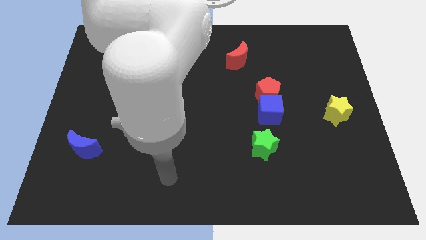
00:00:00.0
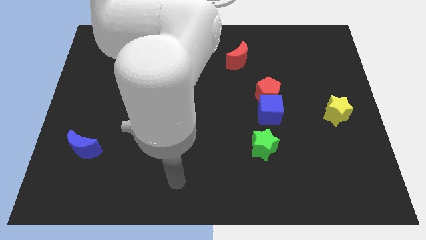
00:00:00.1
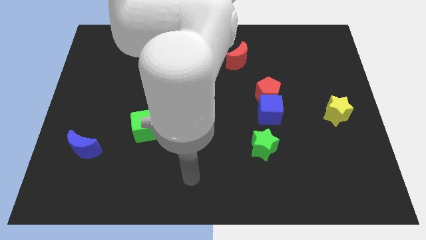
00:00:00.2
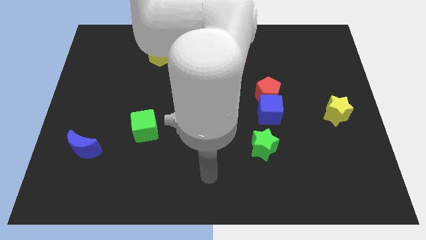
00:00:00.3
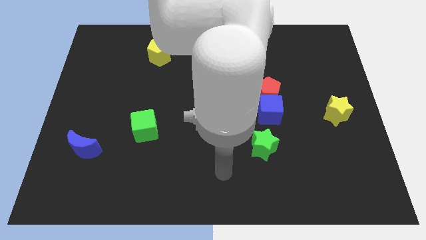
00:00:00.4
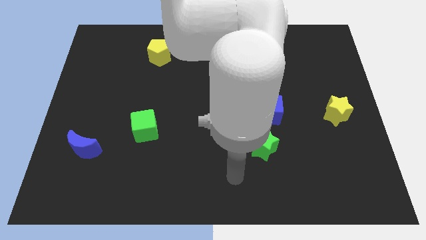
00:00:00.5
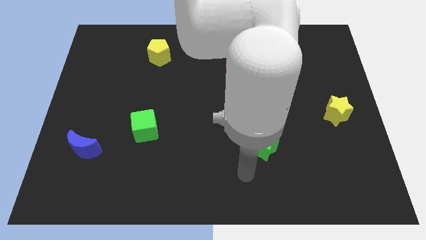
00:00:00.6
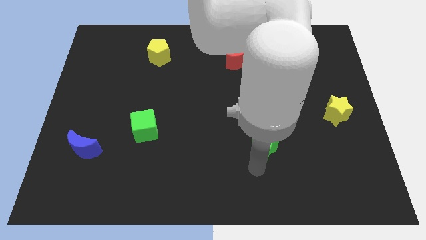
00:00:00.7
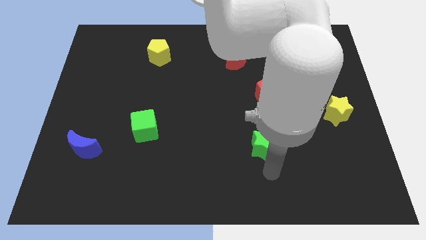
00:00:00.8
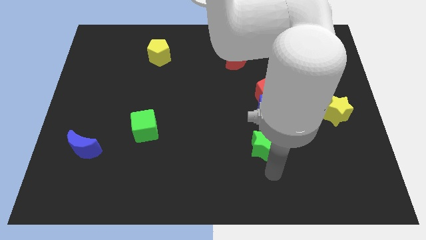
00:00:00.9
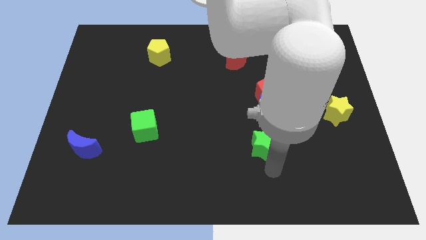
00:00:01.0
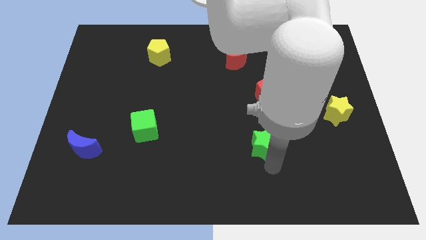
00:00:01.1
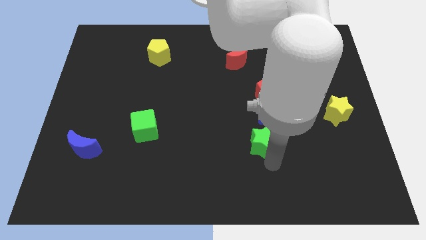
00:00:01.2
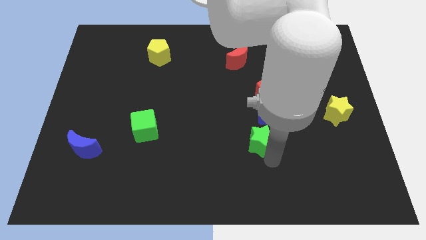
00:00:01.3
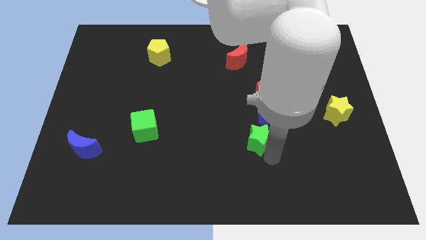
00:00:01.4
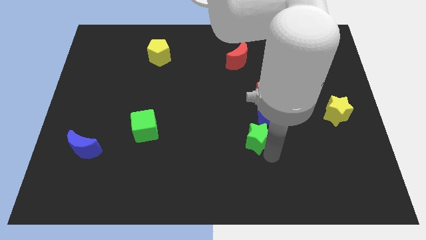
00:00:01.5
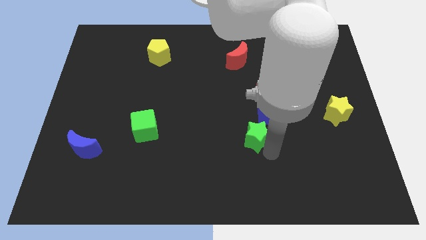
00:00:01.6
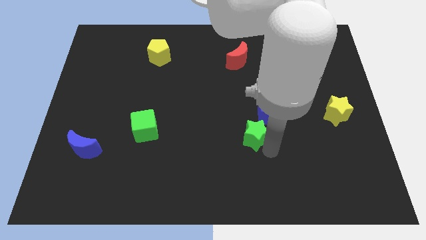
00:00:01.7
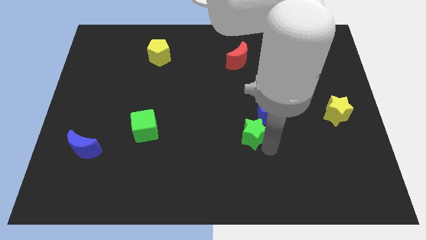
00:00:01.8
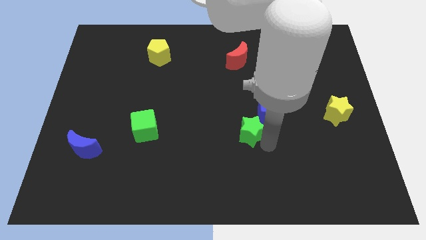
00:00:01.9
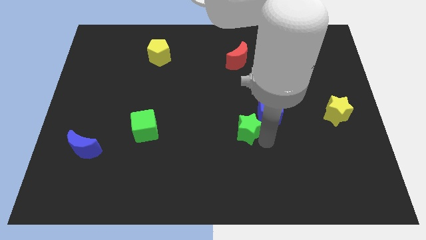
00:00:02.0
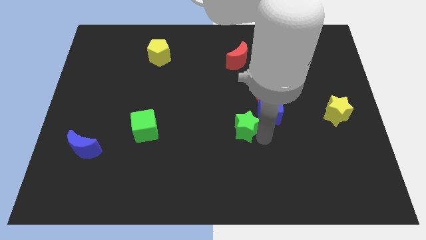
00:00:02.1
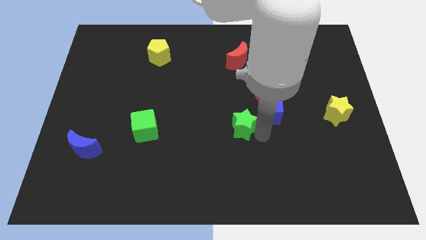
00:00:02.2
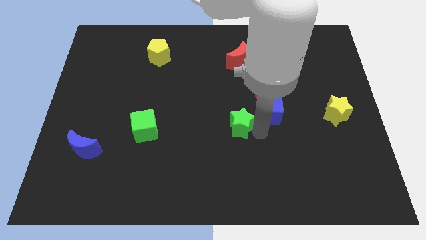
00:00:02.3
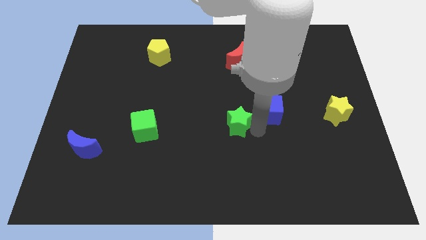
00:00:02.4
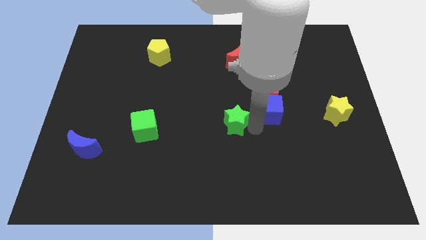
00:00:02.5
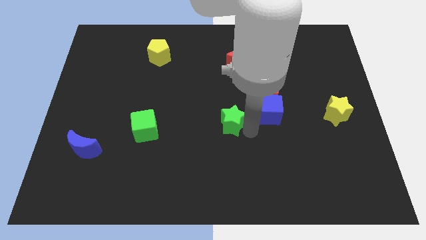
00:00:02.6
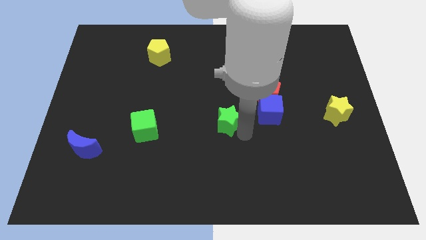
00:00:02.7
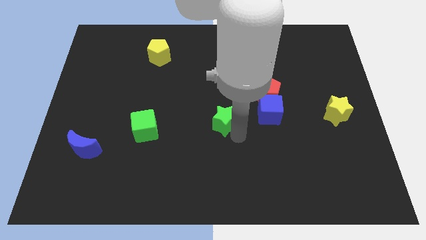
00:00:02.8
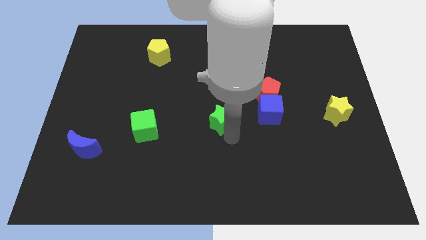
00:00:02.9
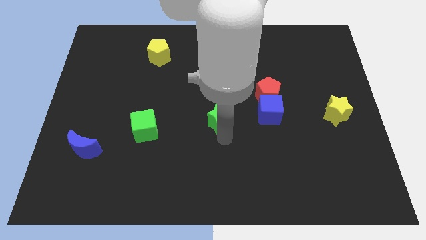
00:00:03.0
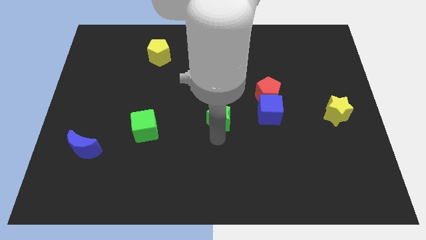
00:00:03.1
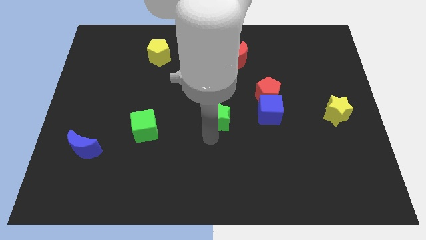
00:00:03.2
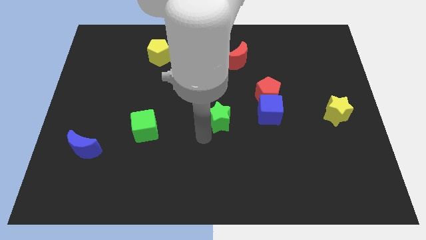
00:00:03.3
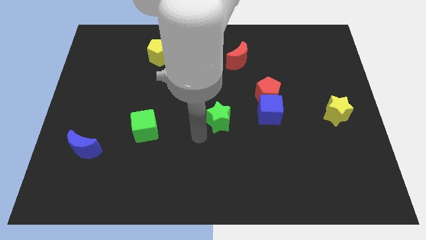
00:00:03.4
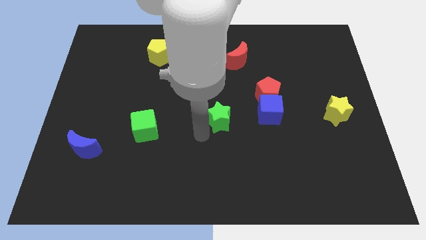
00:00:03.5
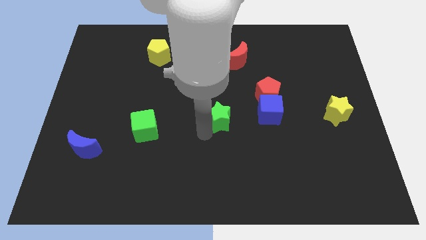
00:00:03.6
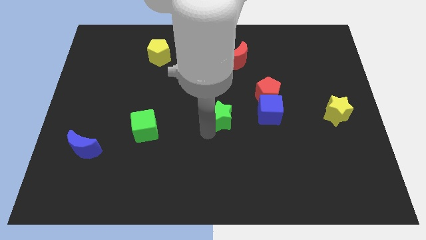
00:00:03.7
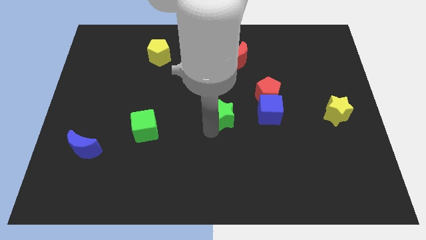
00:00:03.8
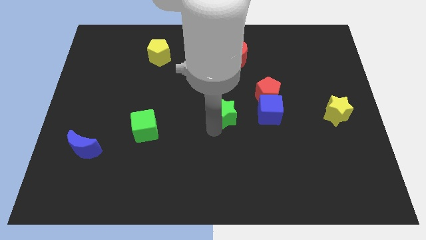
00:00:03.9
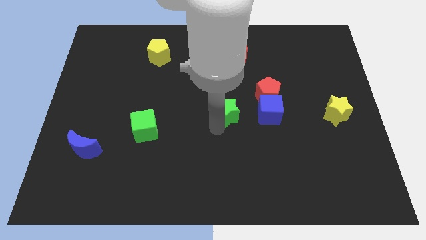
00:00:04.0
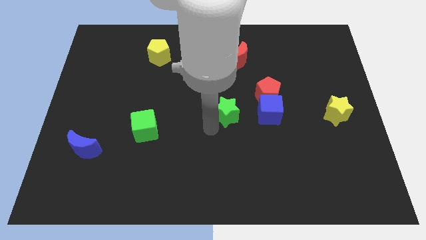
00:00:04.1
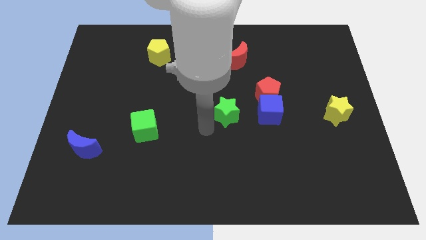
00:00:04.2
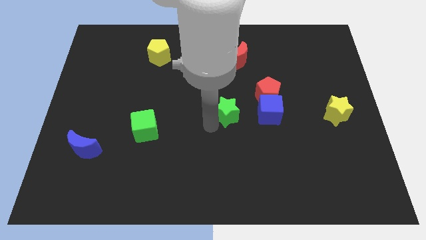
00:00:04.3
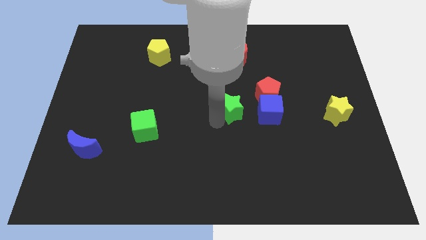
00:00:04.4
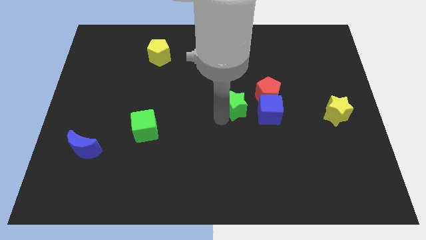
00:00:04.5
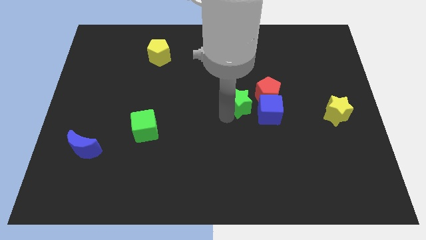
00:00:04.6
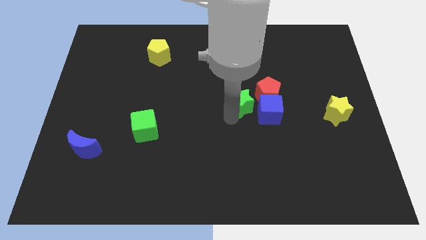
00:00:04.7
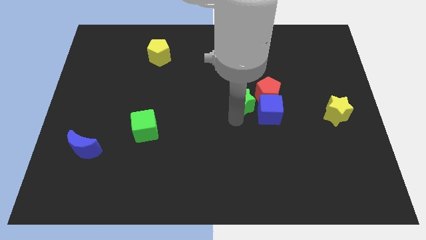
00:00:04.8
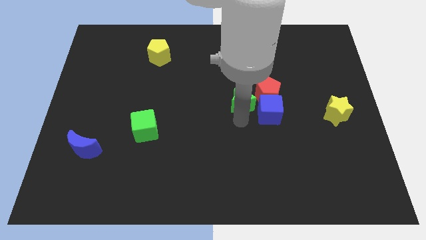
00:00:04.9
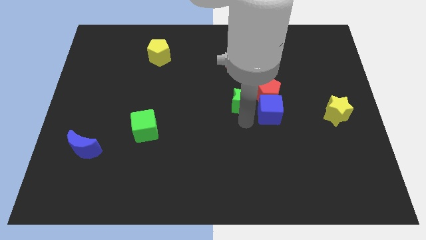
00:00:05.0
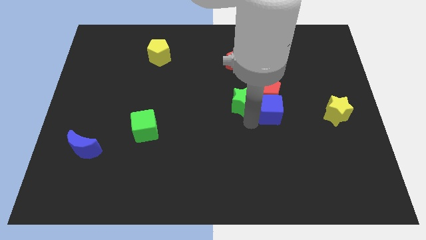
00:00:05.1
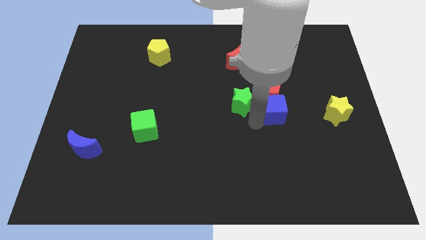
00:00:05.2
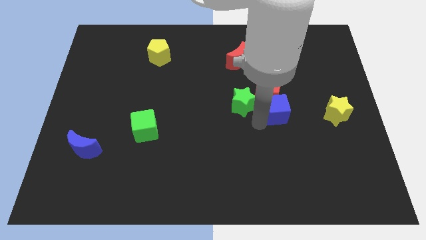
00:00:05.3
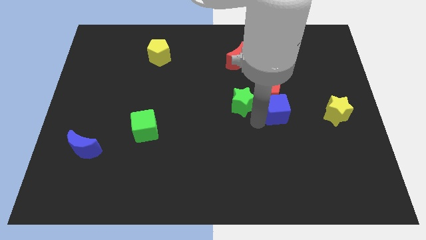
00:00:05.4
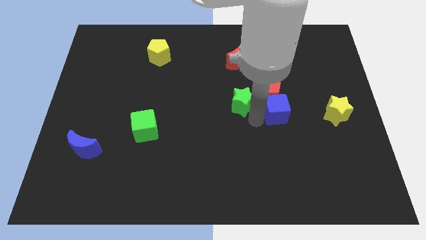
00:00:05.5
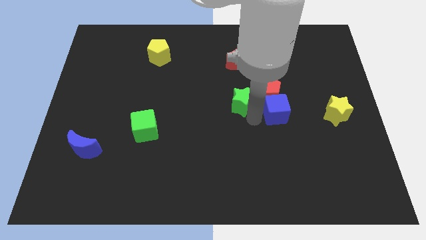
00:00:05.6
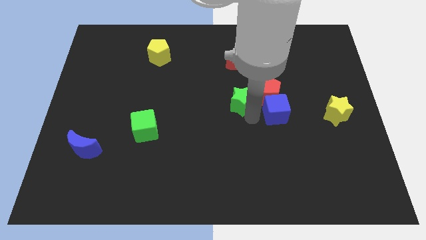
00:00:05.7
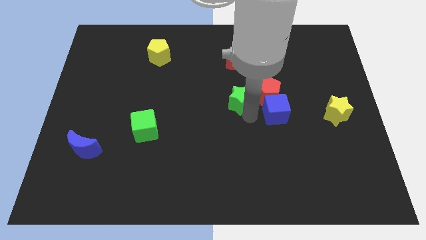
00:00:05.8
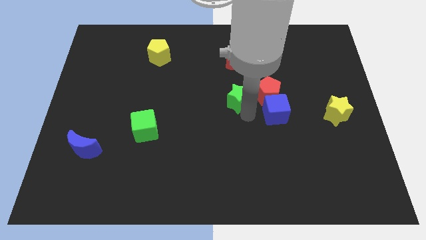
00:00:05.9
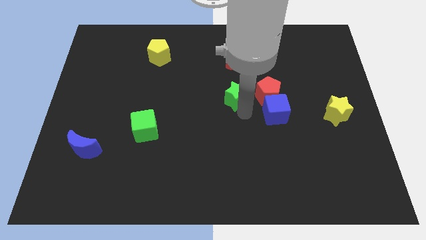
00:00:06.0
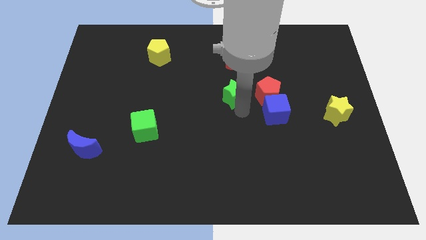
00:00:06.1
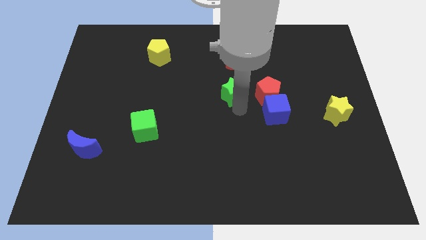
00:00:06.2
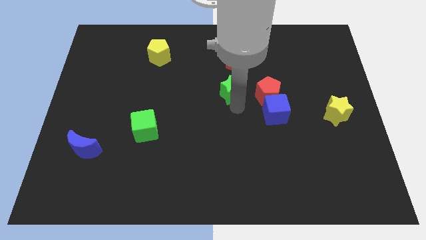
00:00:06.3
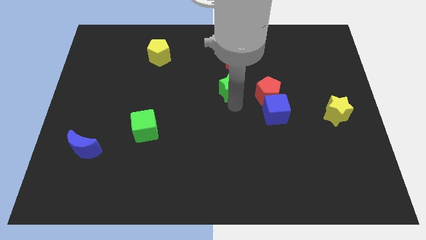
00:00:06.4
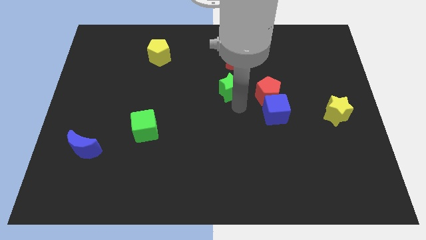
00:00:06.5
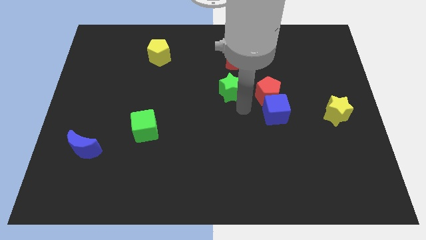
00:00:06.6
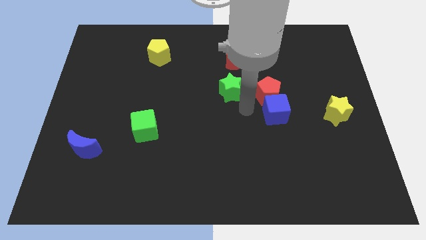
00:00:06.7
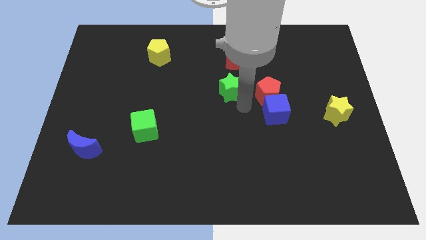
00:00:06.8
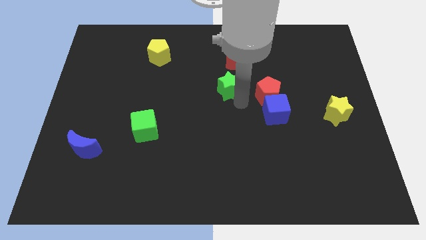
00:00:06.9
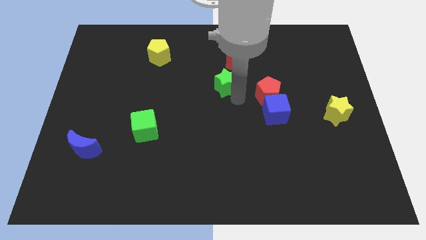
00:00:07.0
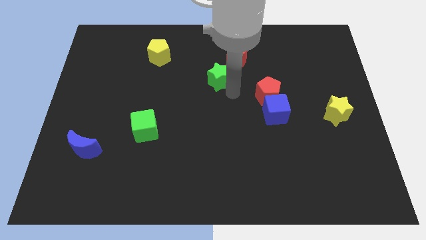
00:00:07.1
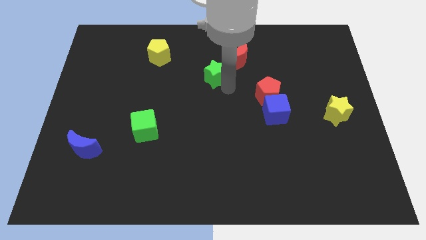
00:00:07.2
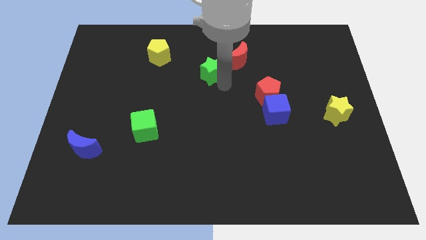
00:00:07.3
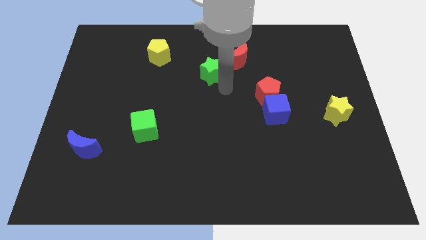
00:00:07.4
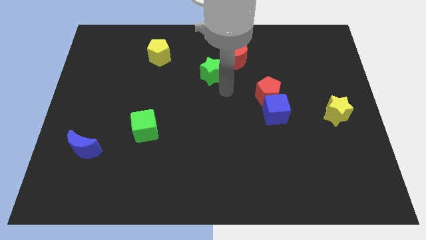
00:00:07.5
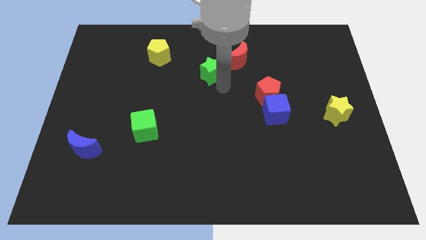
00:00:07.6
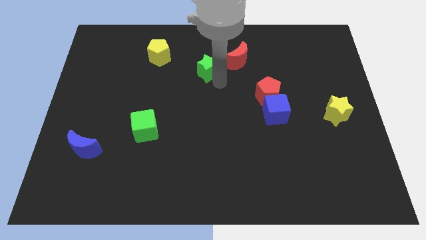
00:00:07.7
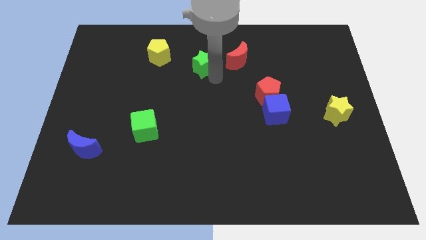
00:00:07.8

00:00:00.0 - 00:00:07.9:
push the green star to the right side of the yellow pentagon
